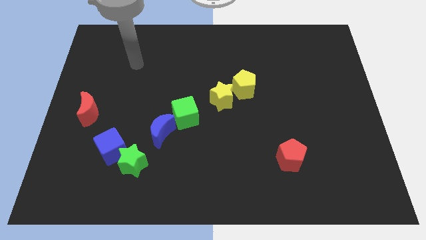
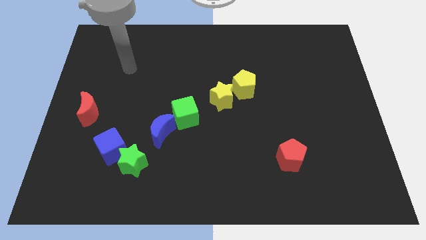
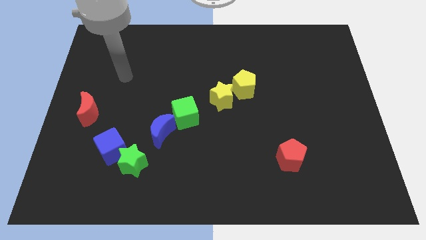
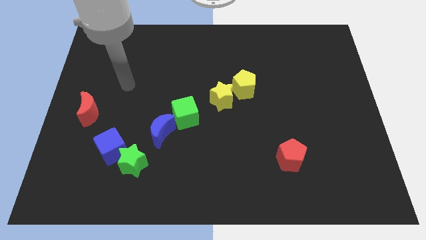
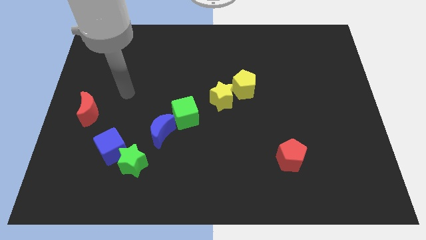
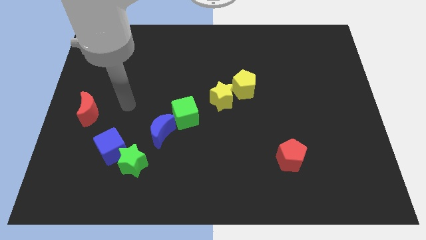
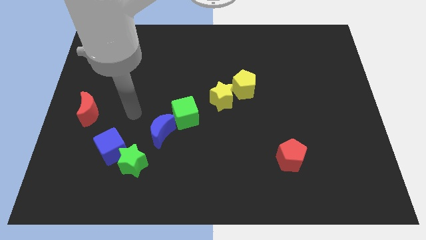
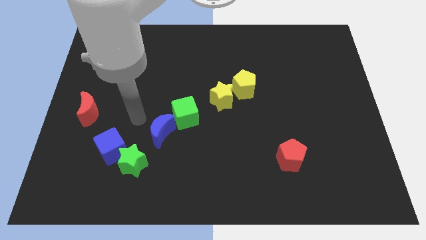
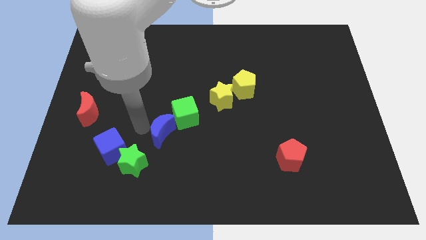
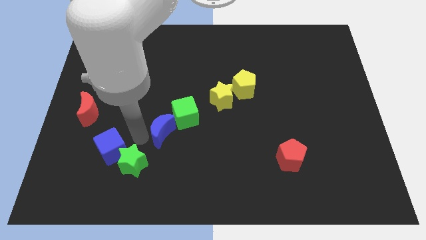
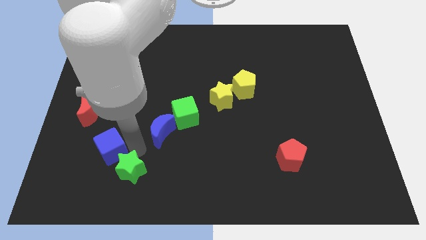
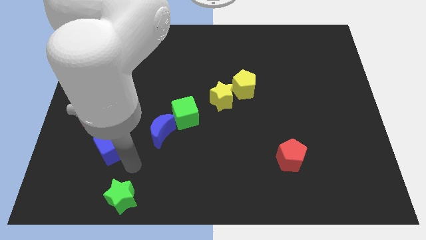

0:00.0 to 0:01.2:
separate the blue cube from the green star

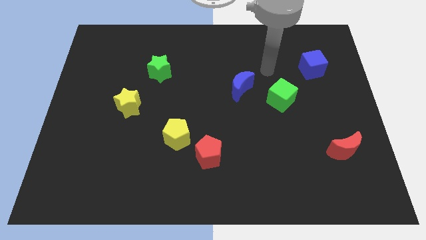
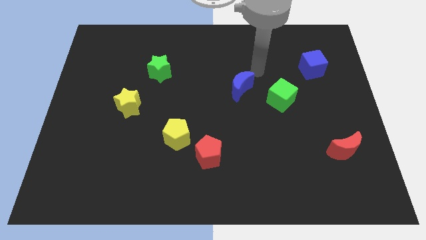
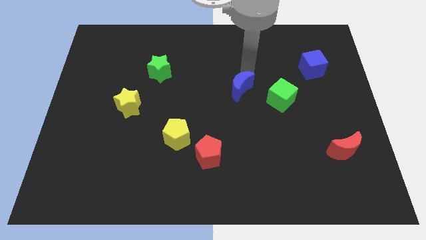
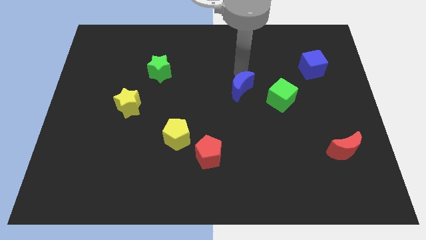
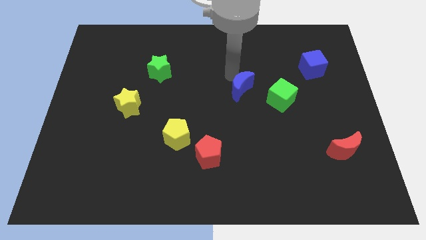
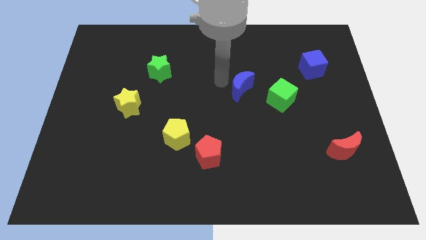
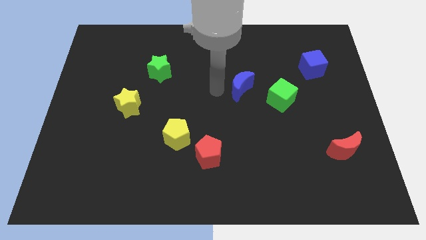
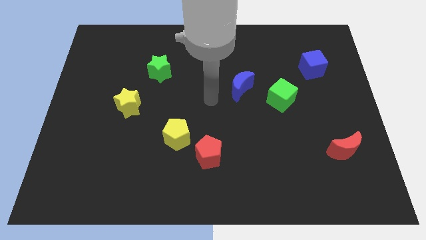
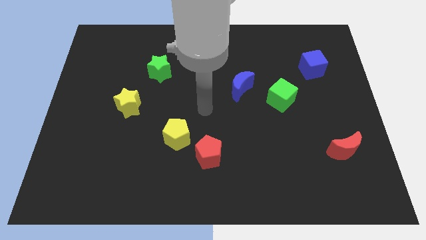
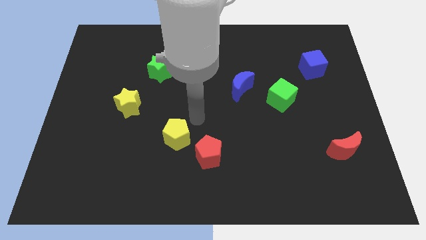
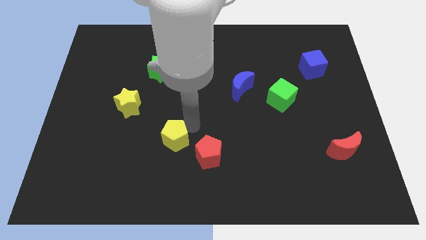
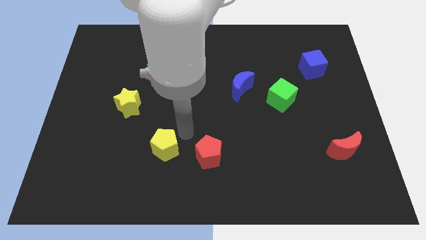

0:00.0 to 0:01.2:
separate the red pentagon from the yellow pentagon

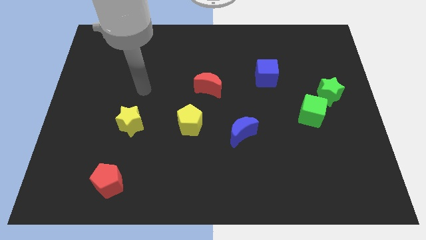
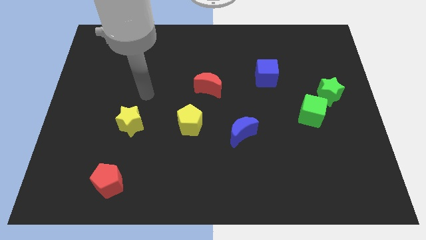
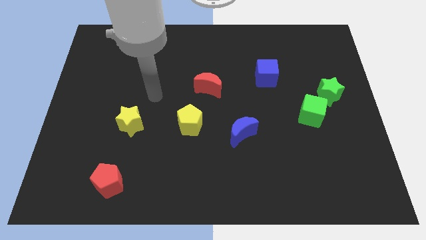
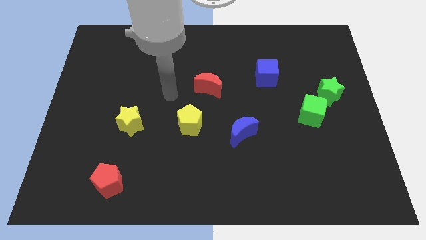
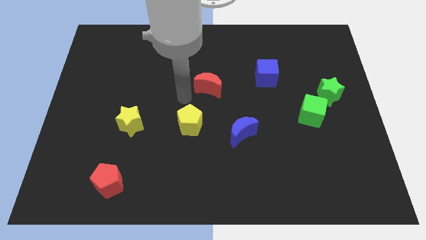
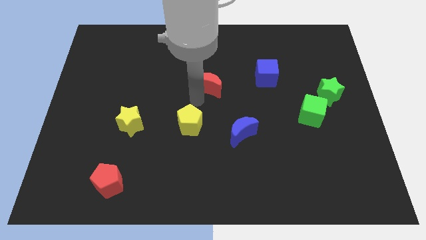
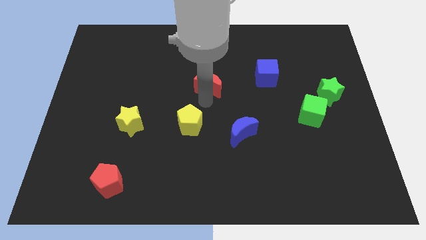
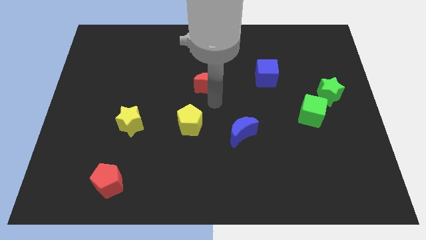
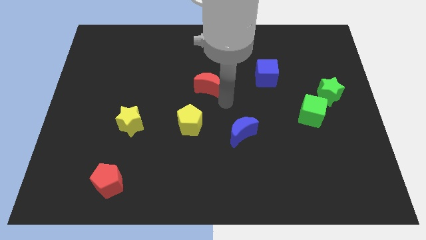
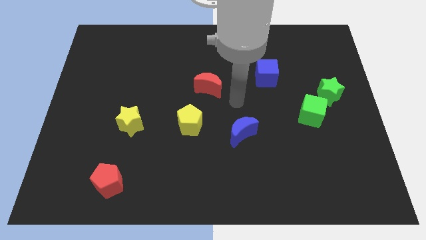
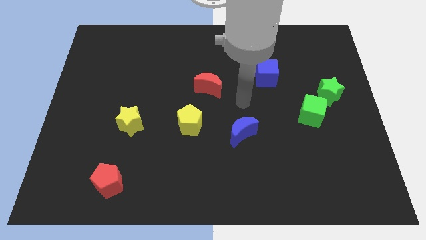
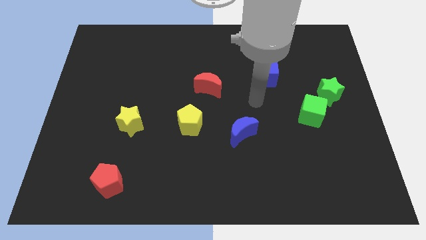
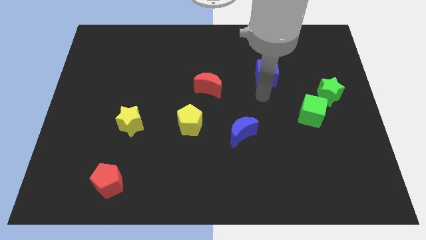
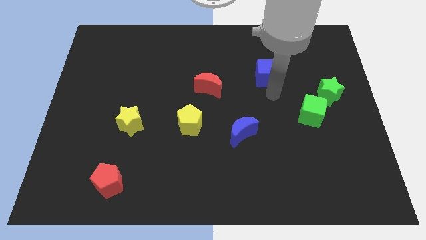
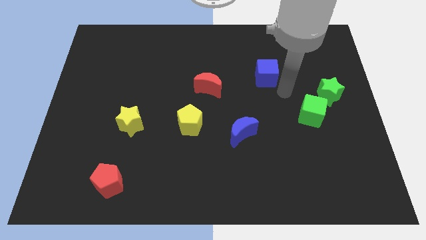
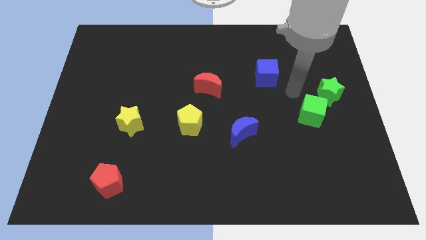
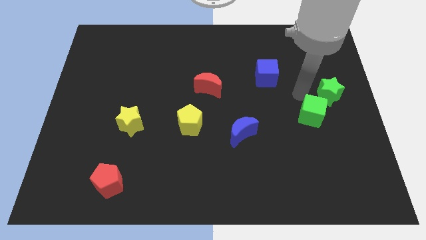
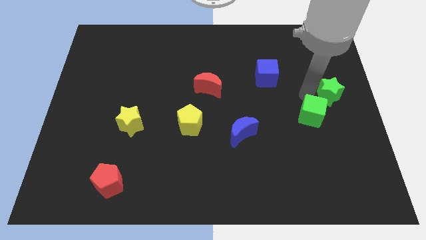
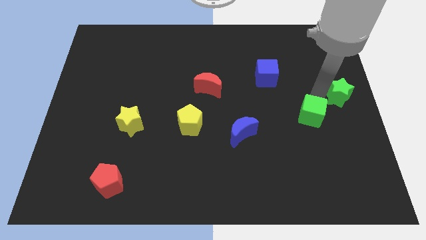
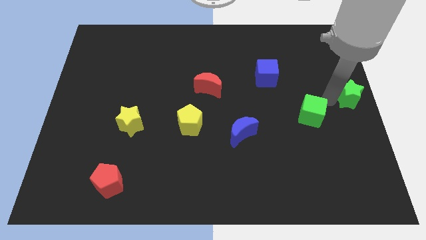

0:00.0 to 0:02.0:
move the green cube away from the green star

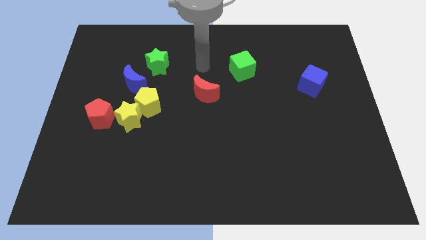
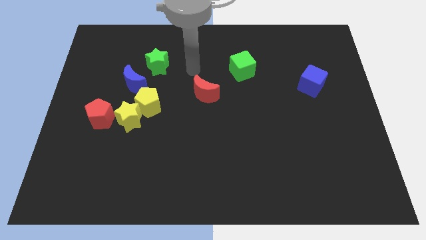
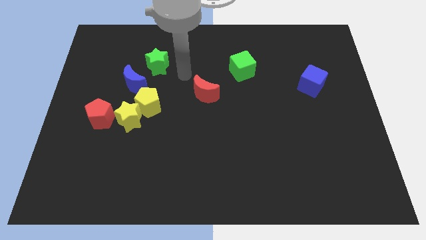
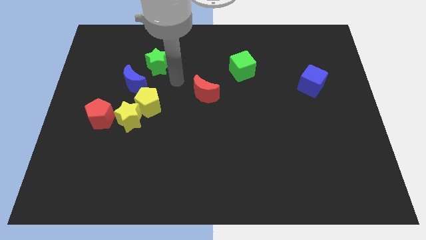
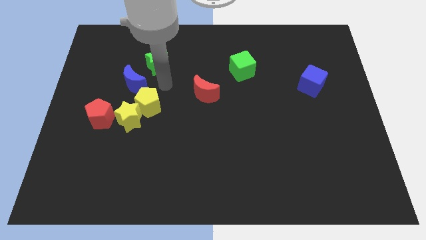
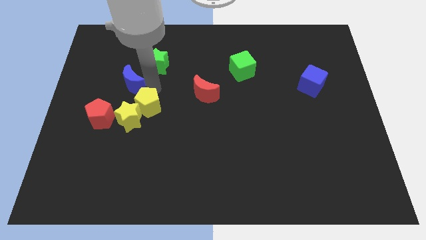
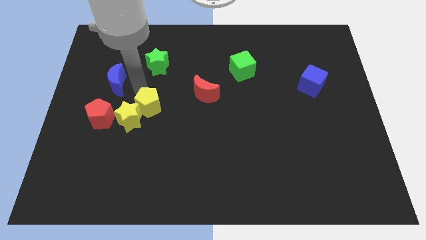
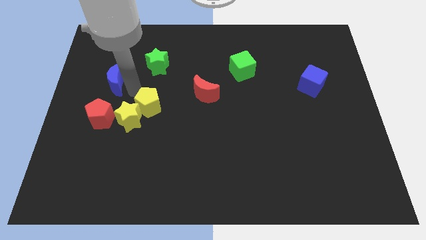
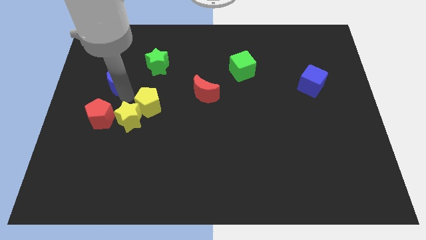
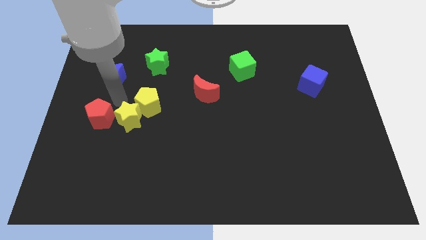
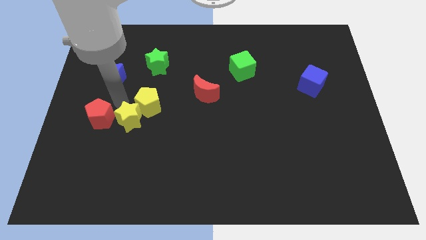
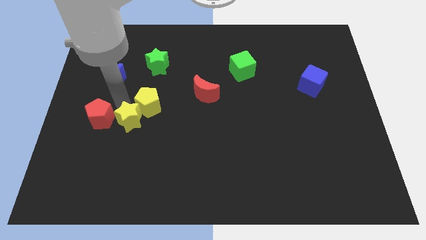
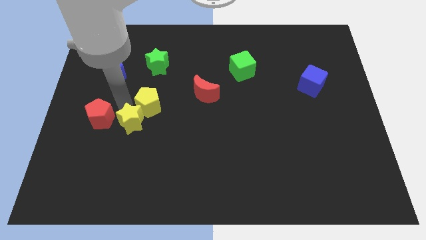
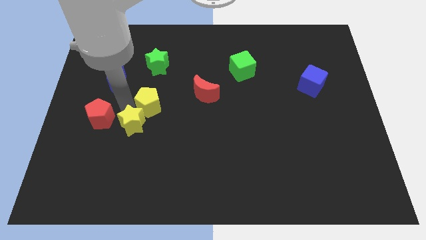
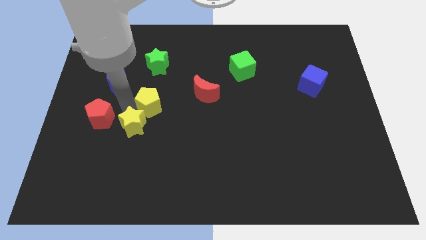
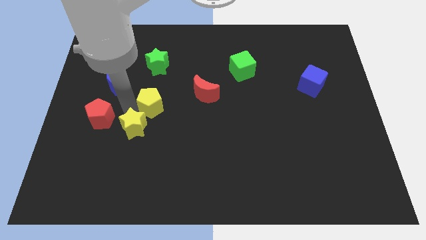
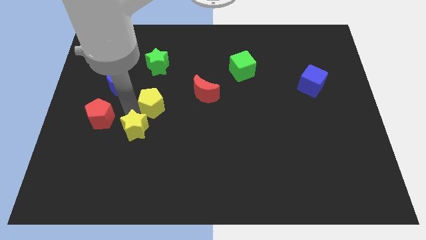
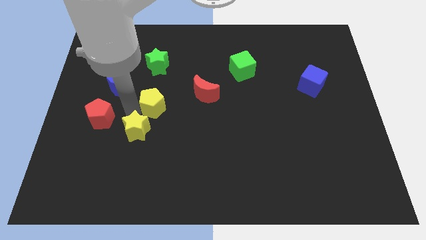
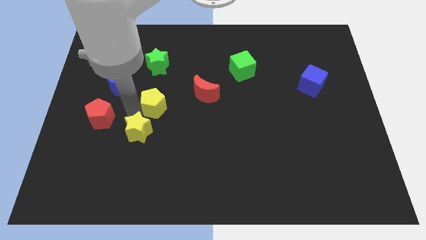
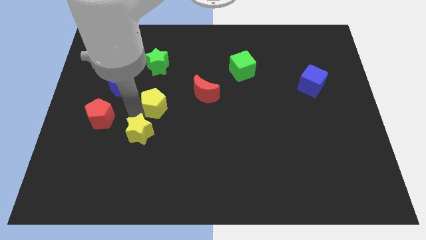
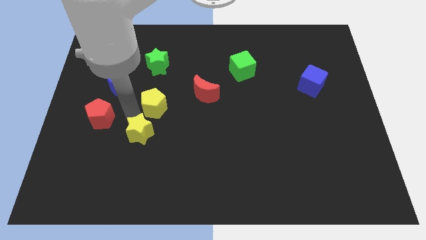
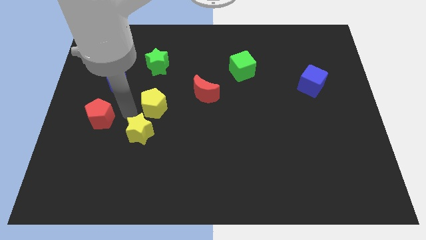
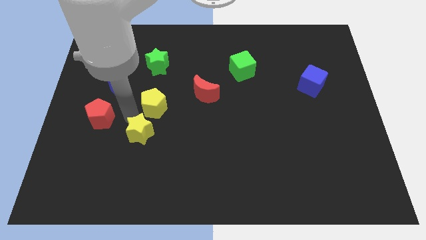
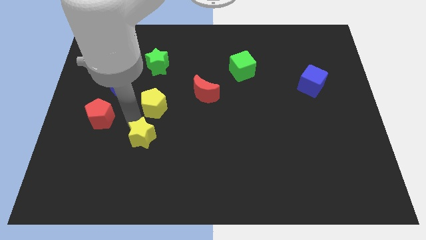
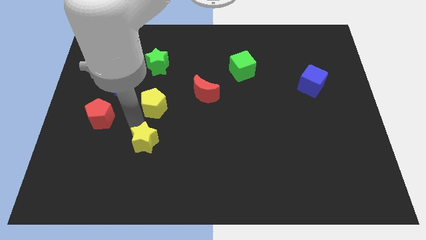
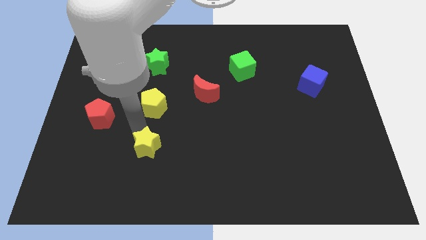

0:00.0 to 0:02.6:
separate the yellow star from the yellow pentagon and red pentagon

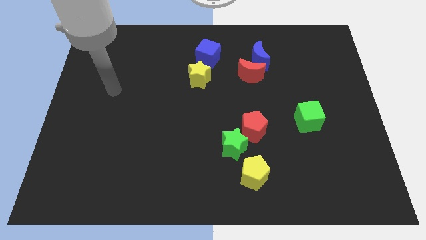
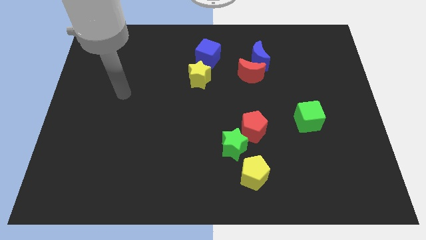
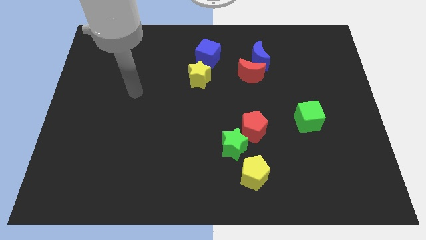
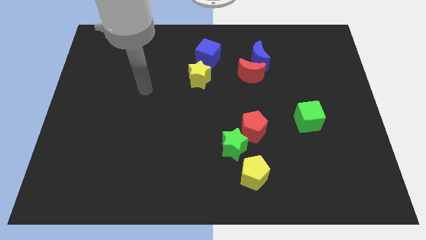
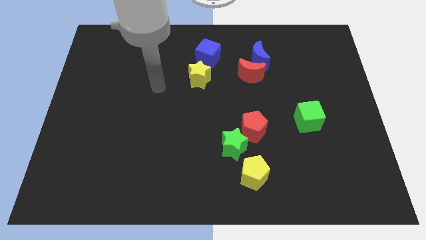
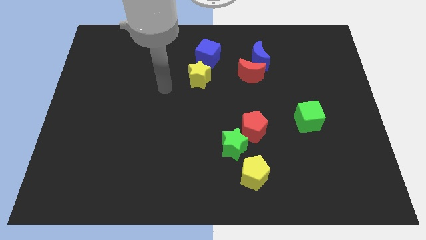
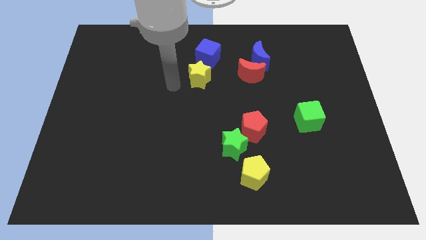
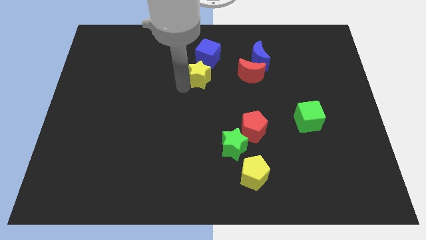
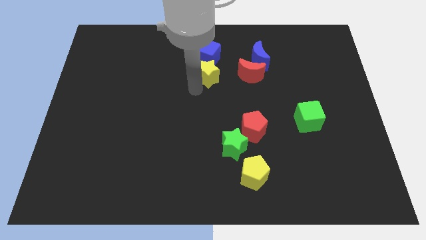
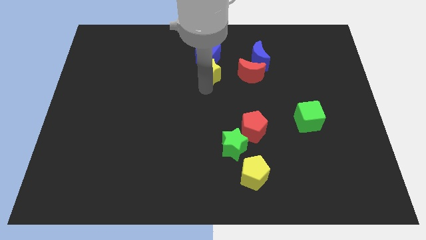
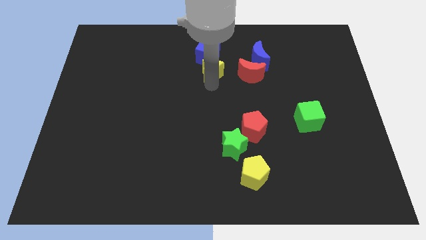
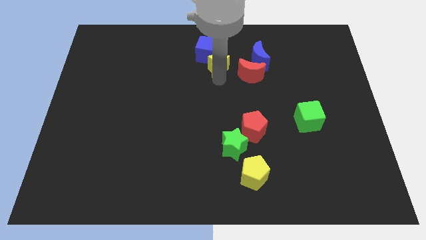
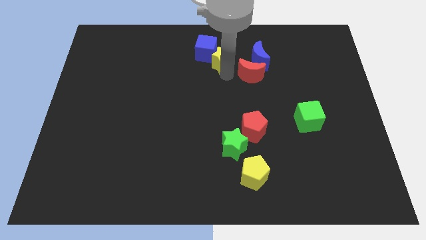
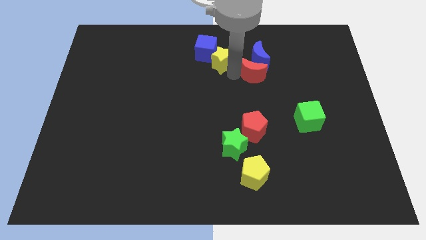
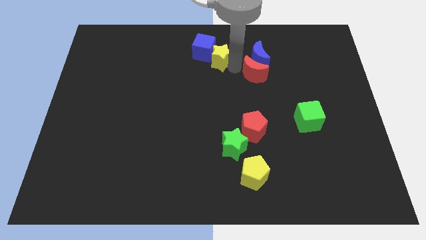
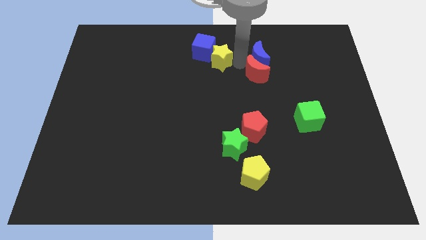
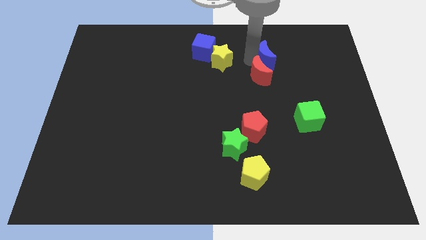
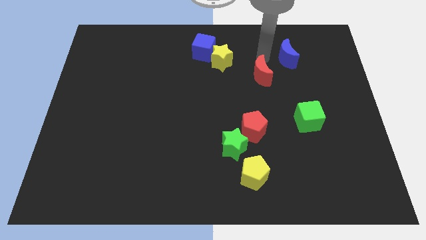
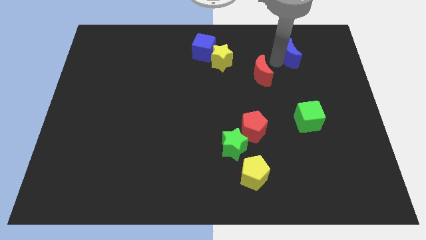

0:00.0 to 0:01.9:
move the red moon away from the blue moon

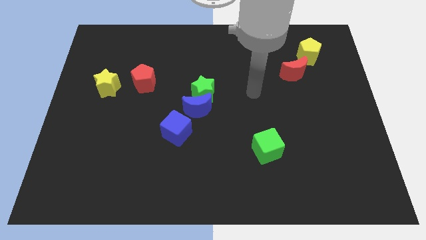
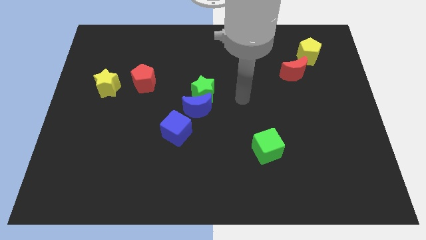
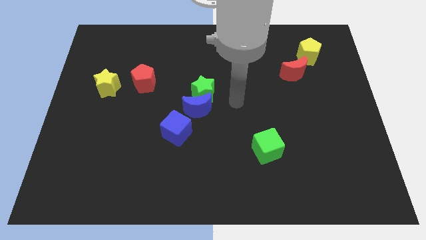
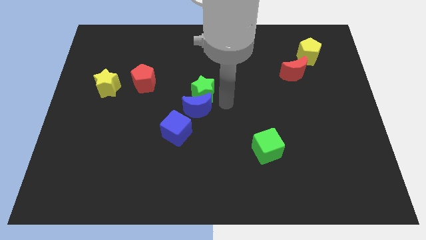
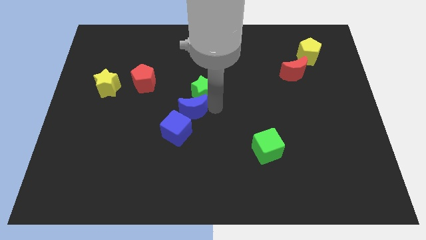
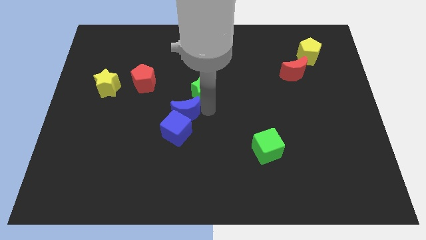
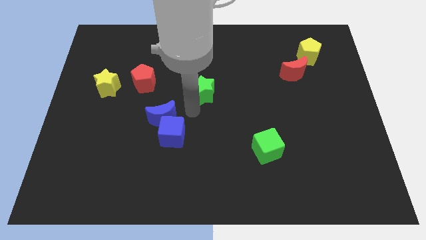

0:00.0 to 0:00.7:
pull the green star apart from the blue moon
